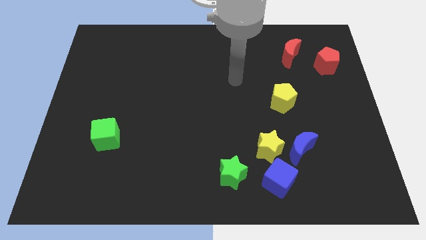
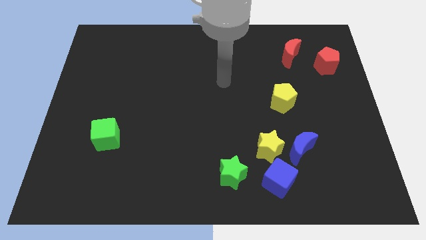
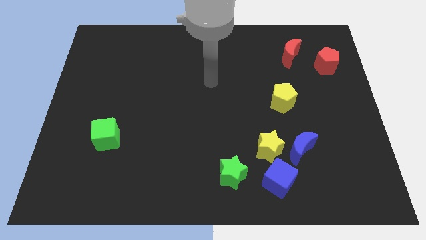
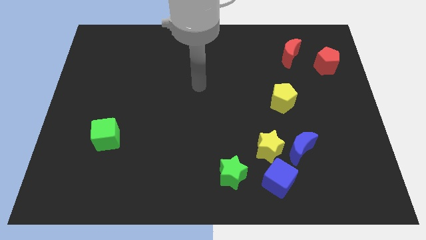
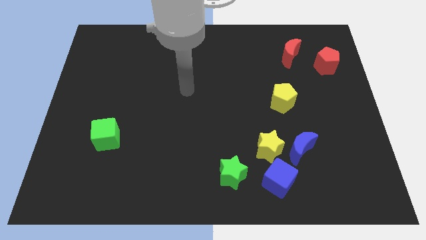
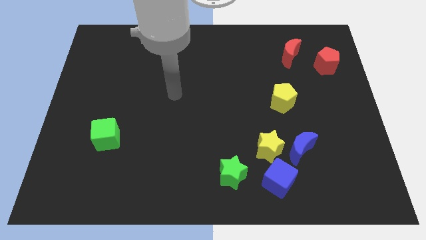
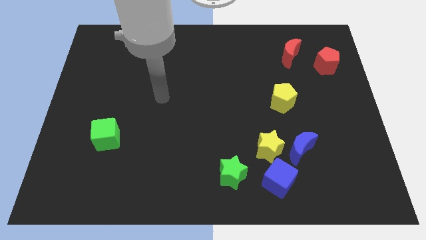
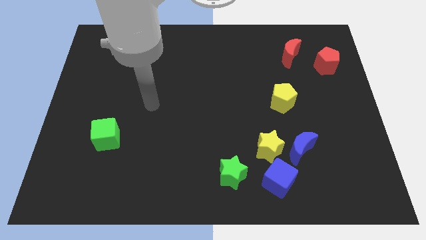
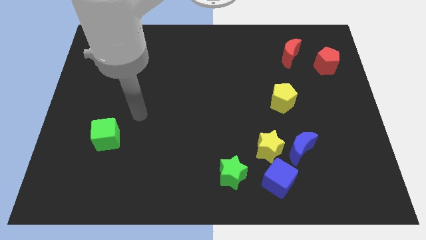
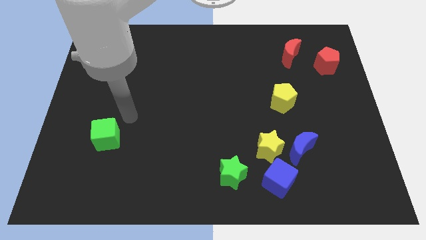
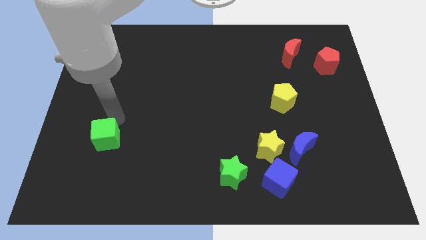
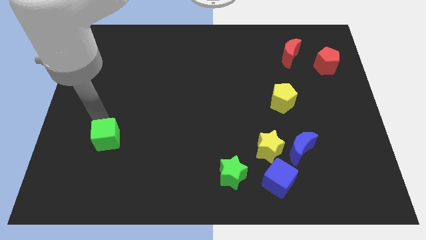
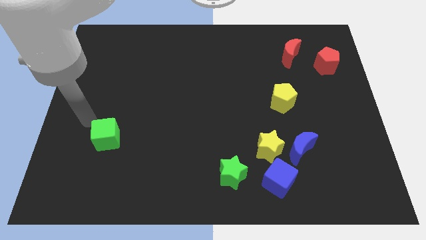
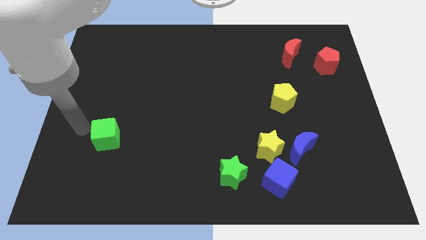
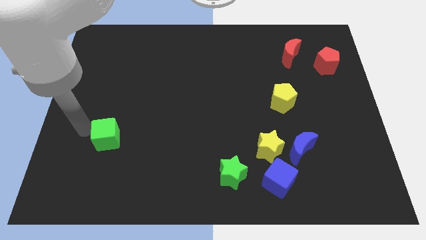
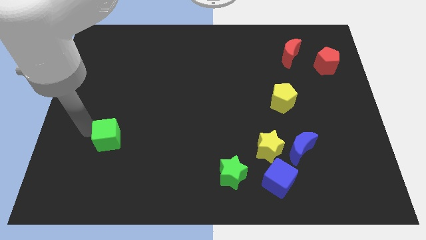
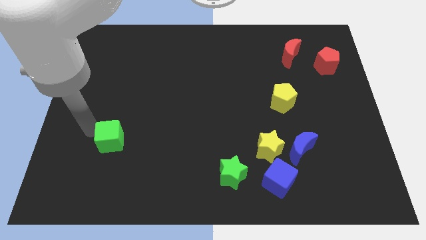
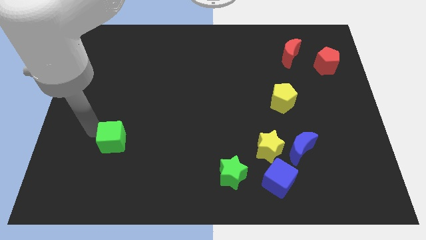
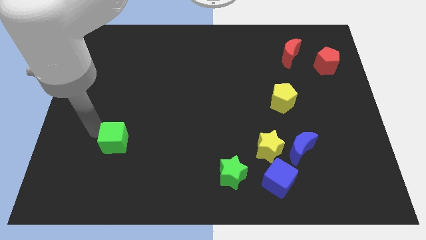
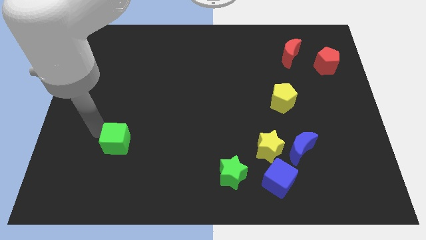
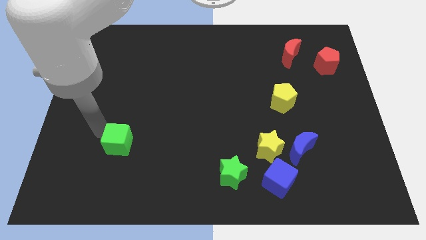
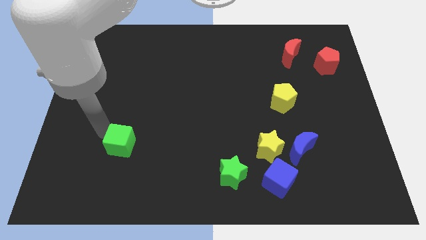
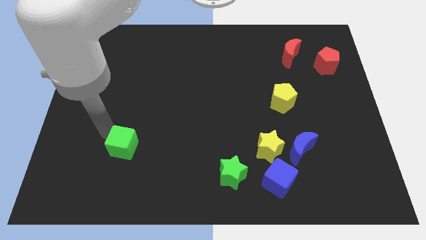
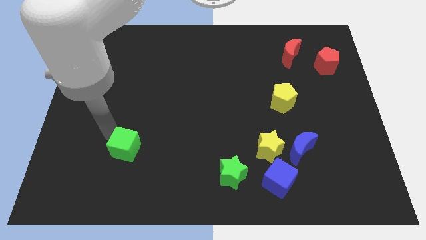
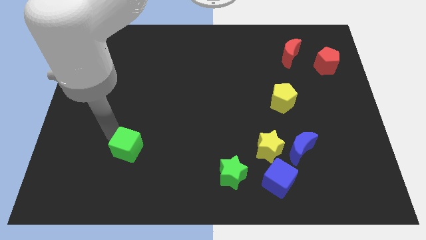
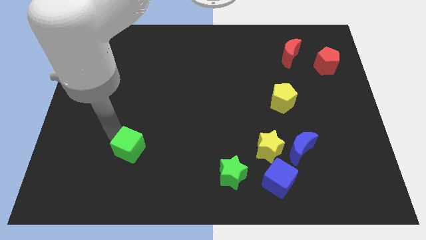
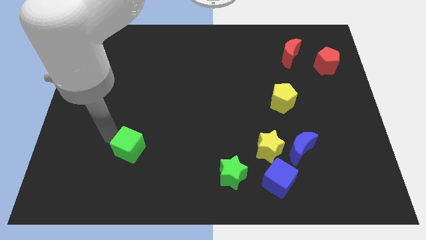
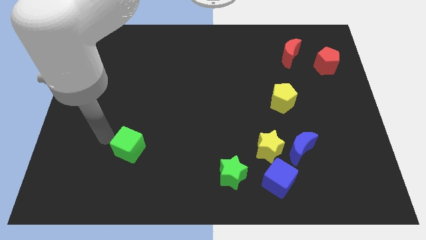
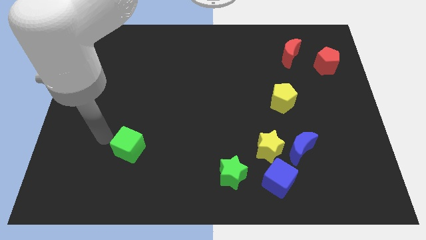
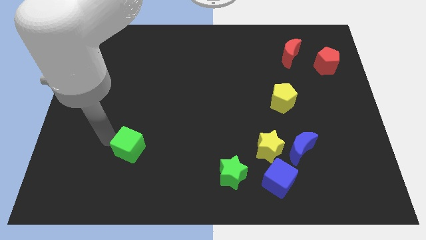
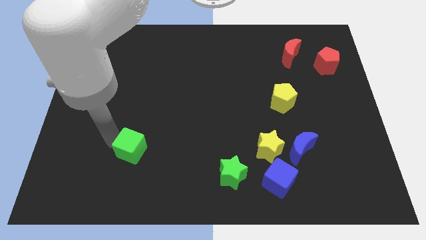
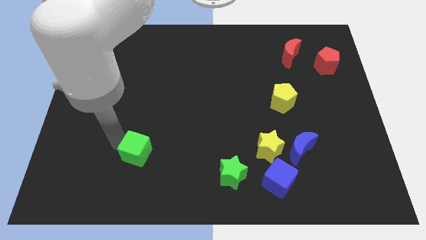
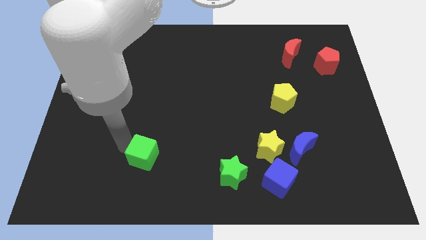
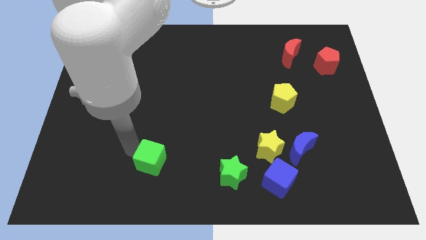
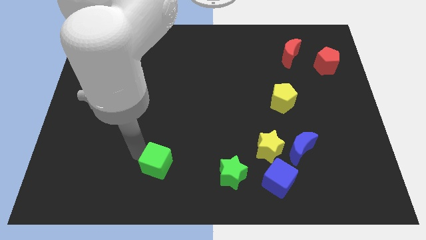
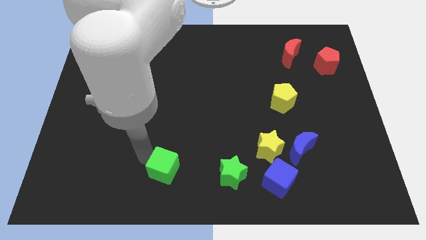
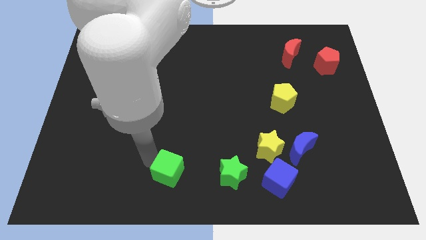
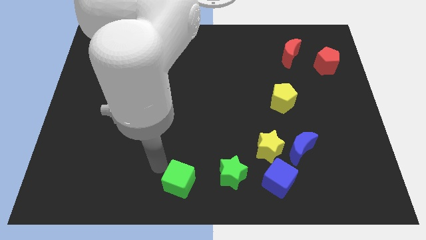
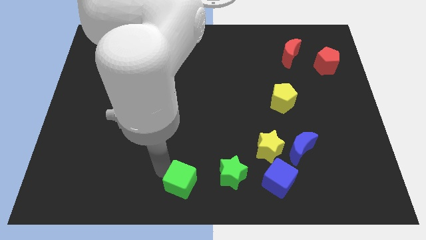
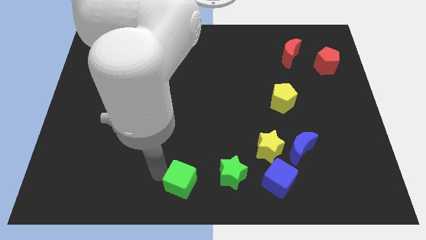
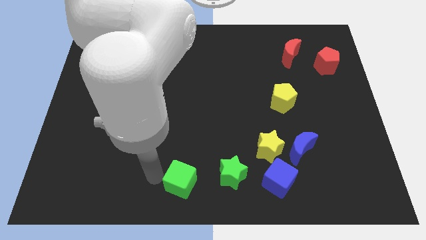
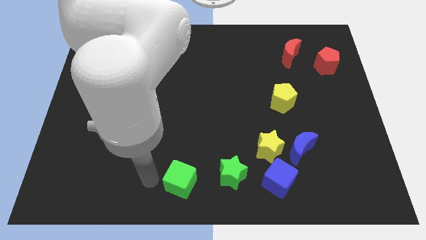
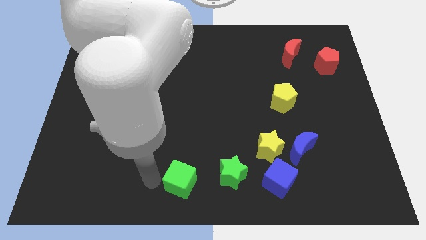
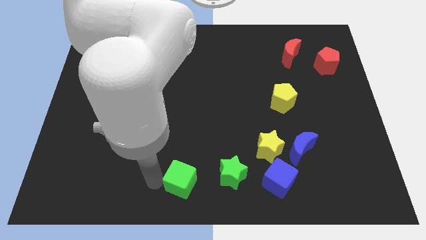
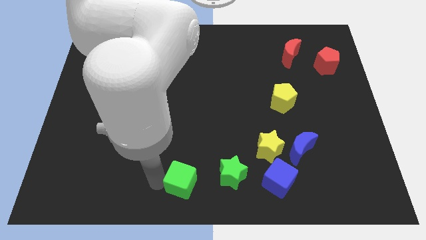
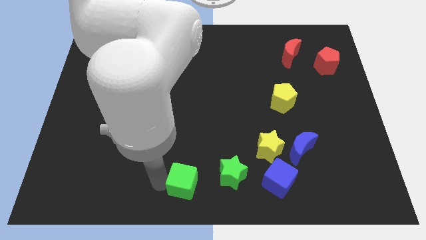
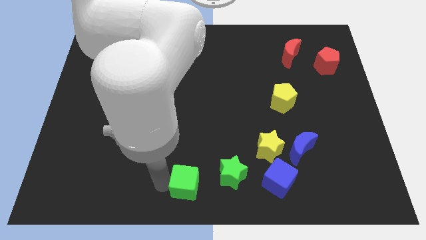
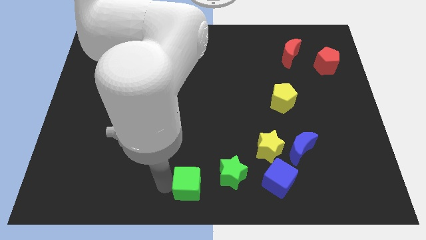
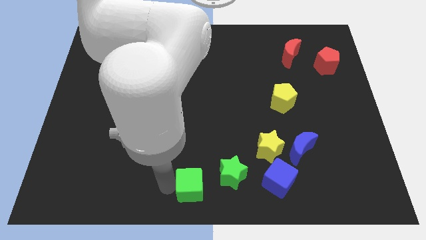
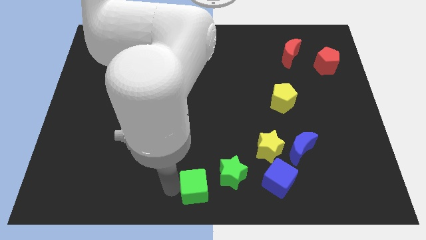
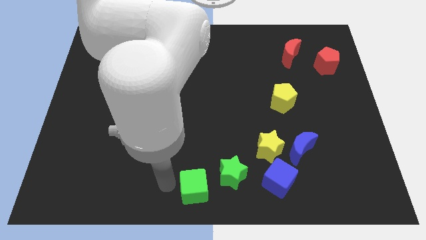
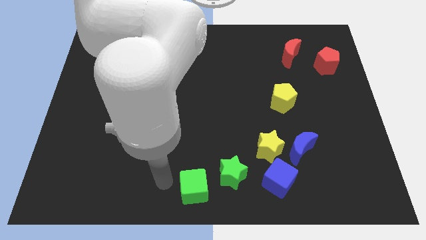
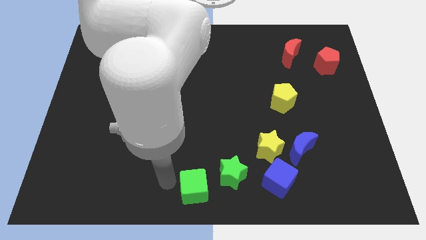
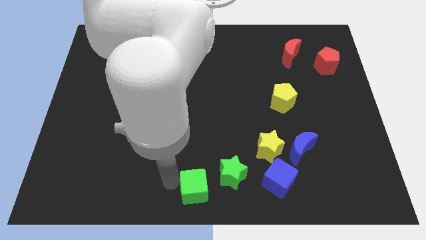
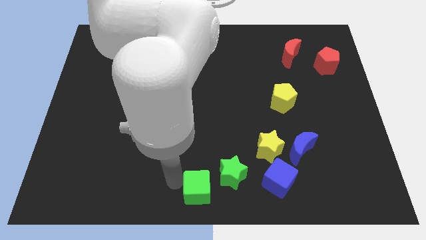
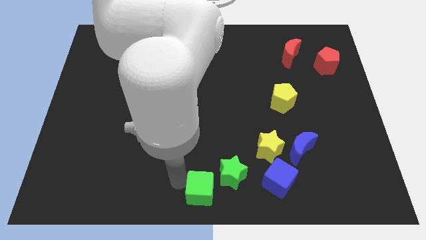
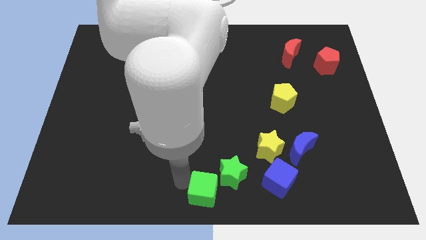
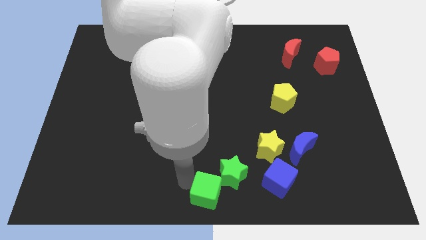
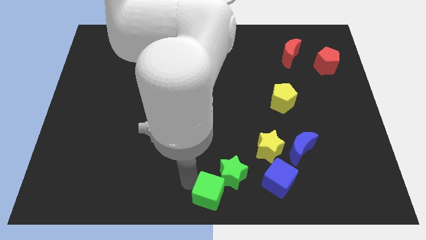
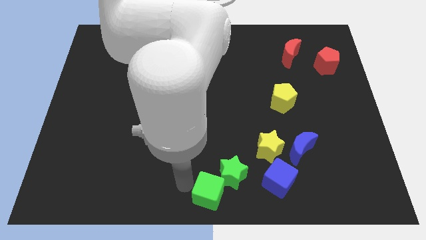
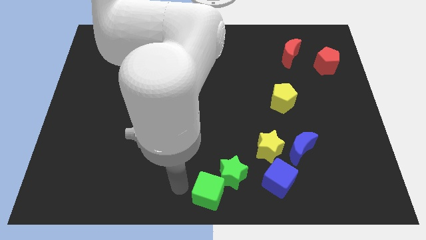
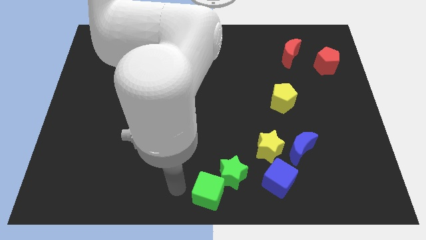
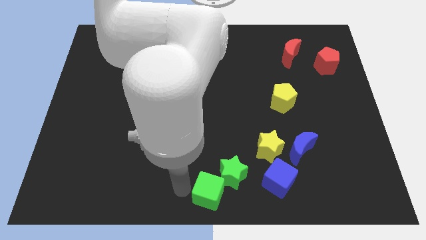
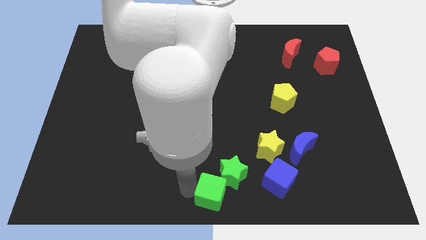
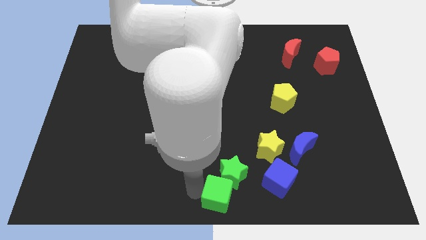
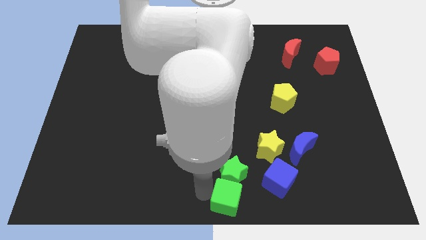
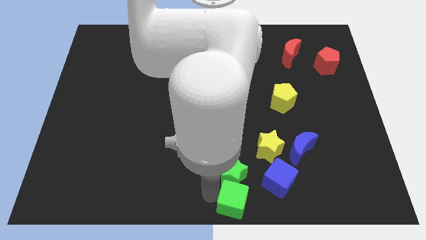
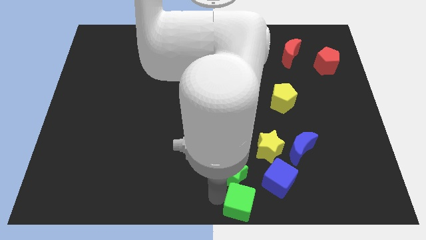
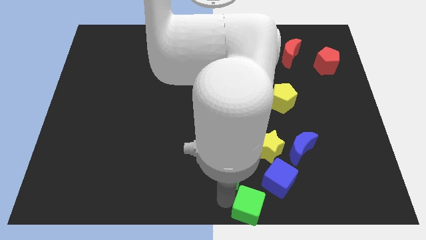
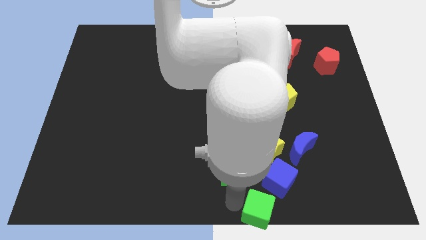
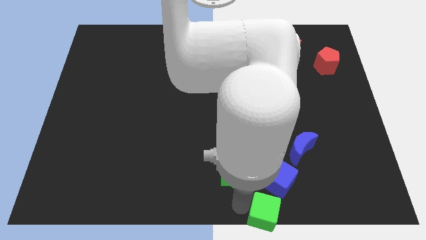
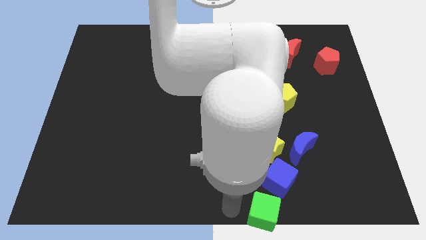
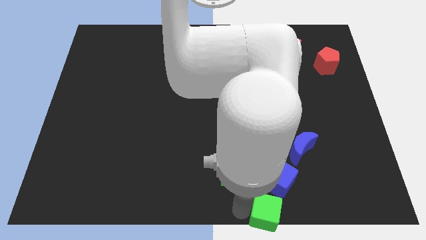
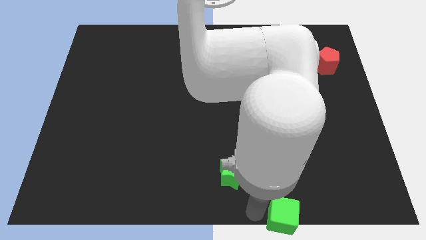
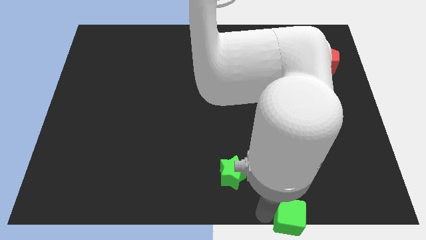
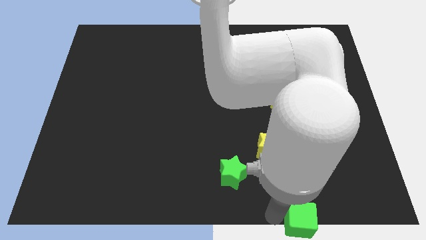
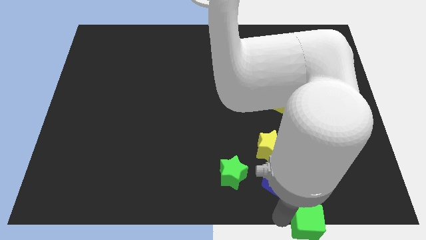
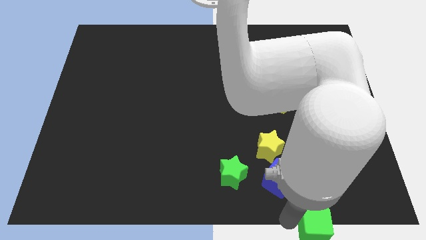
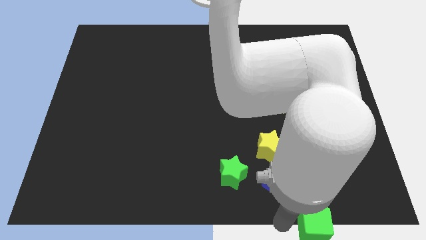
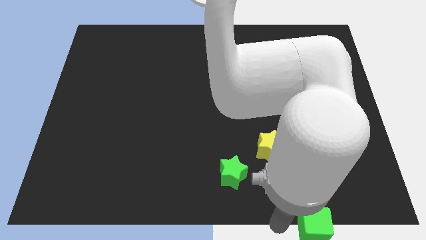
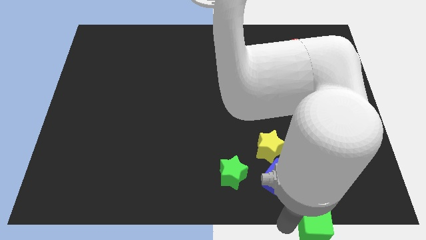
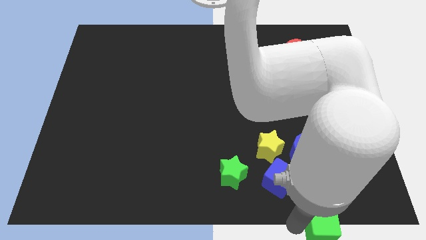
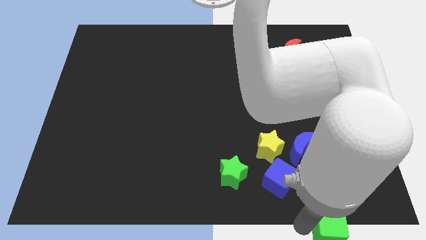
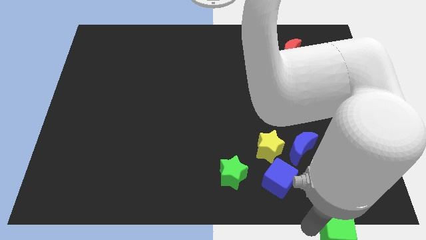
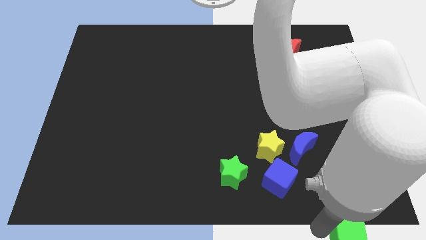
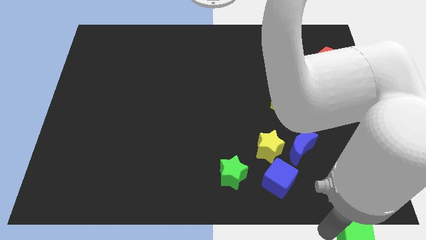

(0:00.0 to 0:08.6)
put the green cube to the bottom right of the board
